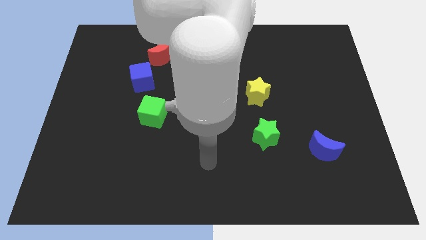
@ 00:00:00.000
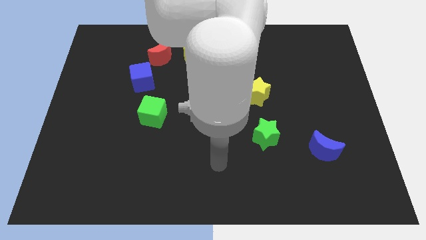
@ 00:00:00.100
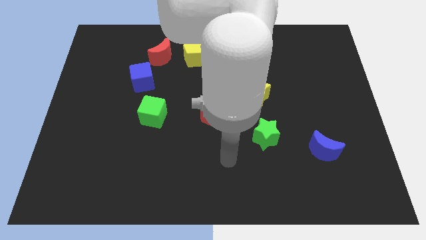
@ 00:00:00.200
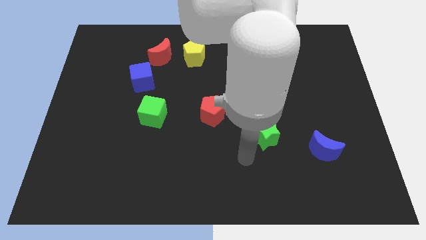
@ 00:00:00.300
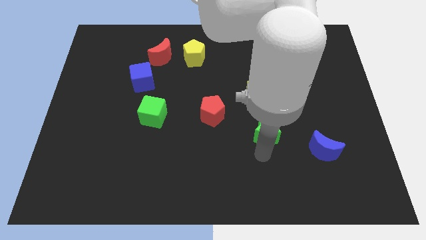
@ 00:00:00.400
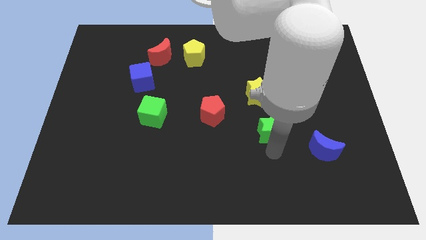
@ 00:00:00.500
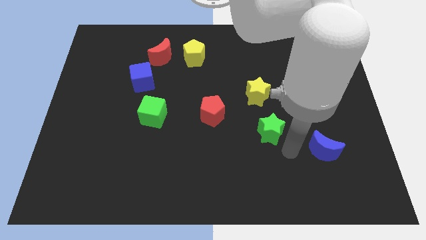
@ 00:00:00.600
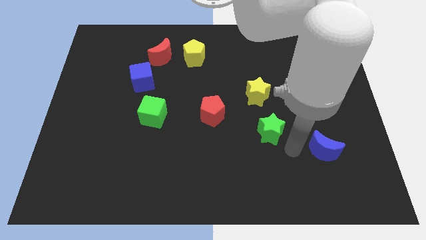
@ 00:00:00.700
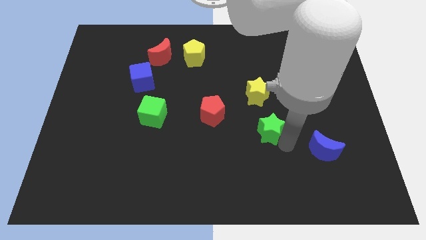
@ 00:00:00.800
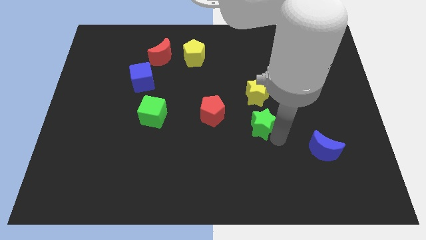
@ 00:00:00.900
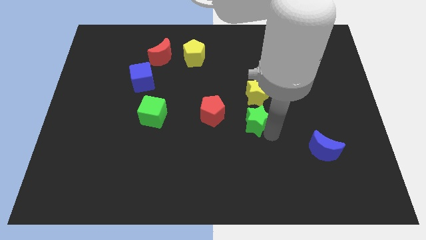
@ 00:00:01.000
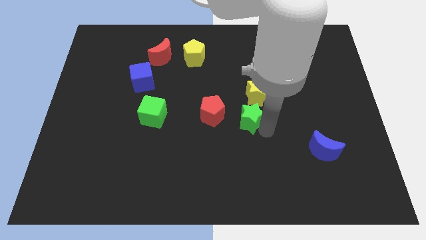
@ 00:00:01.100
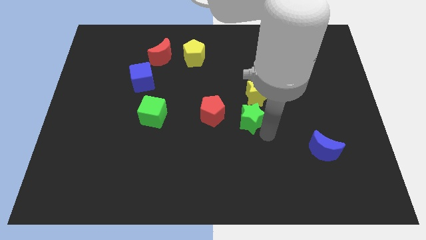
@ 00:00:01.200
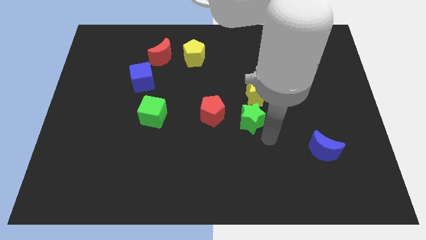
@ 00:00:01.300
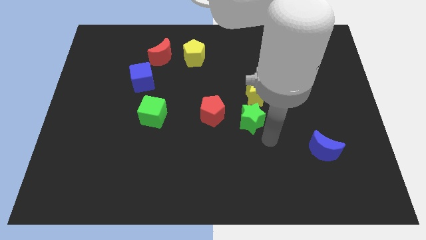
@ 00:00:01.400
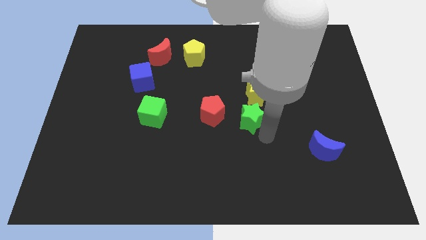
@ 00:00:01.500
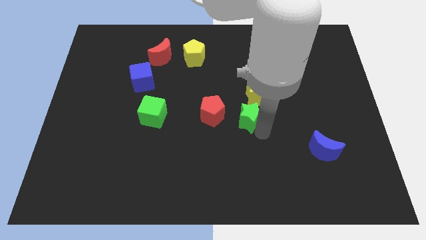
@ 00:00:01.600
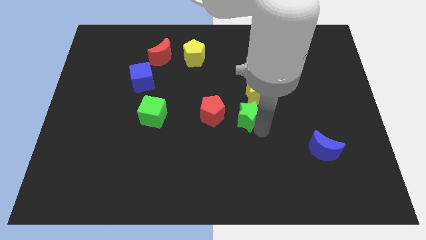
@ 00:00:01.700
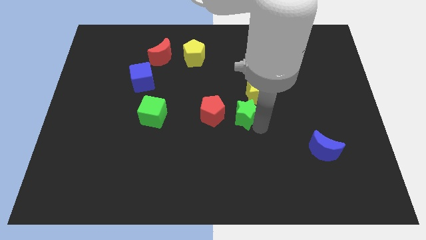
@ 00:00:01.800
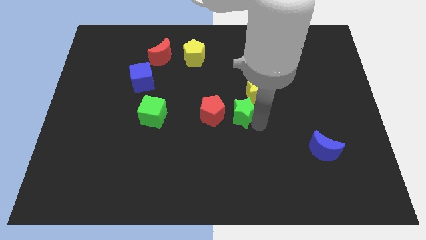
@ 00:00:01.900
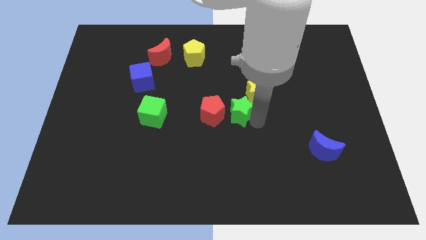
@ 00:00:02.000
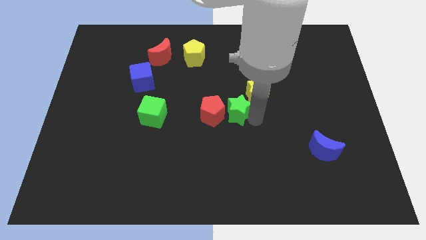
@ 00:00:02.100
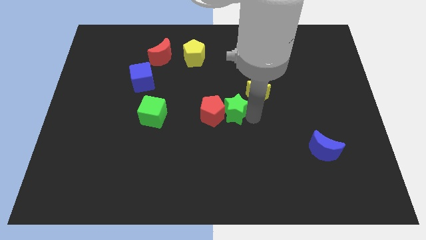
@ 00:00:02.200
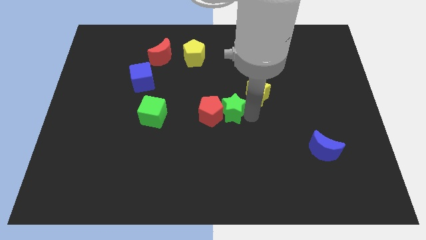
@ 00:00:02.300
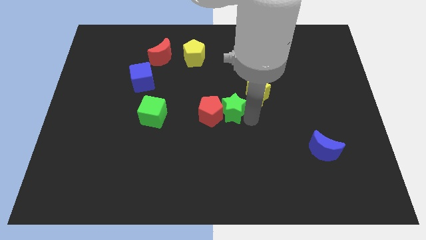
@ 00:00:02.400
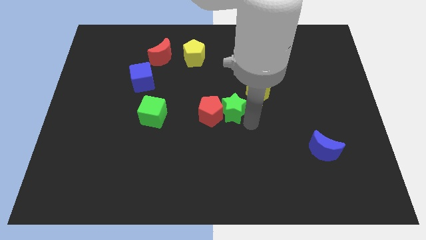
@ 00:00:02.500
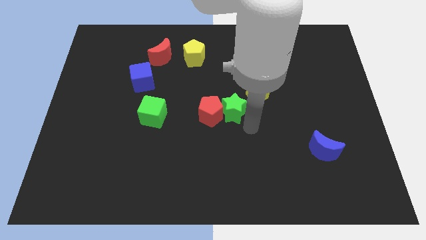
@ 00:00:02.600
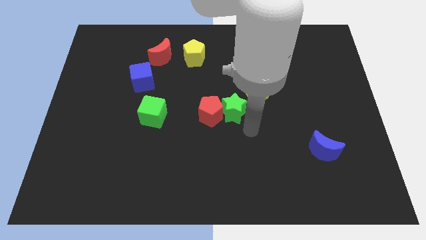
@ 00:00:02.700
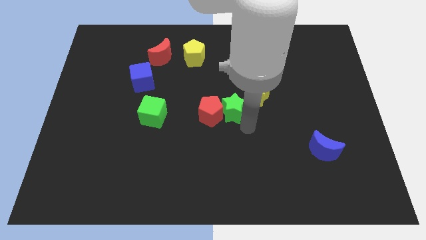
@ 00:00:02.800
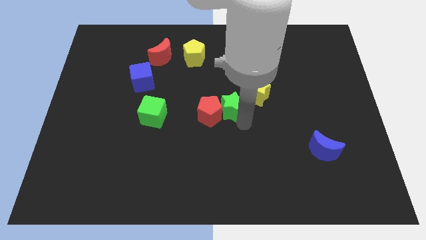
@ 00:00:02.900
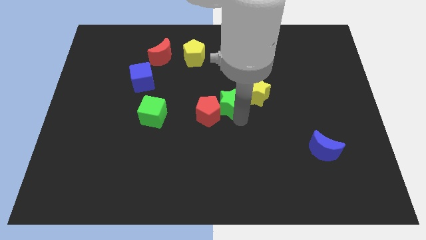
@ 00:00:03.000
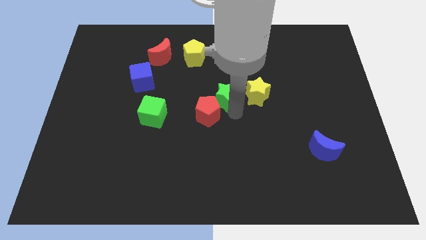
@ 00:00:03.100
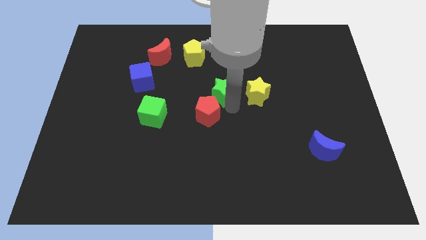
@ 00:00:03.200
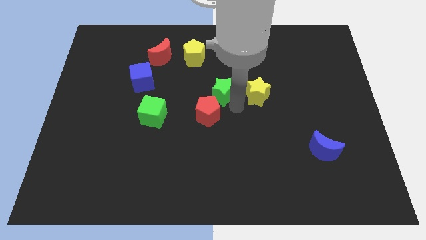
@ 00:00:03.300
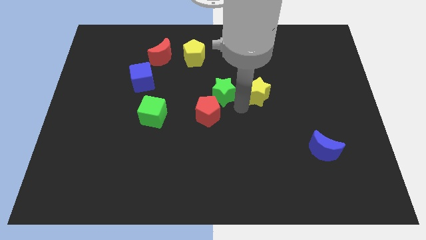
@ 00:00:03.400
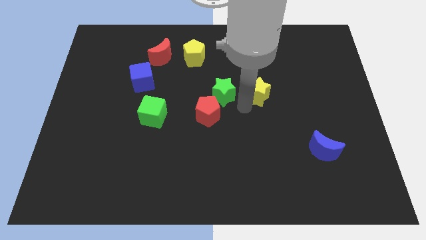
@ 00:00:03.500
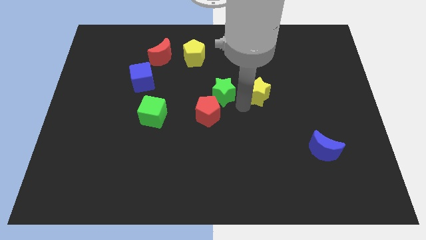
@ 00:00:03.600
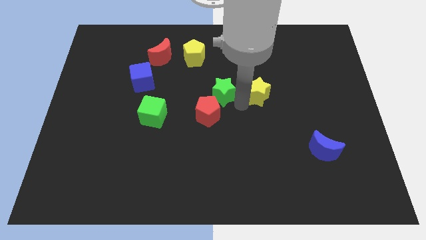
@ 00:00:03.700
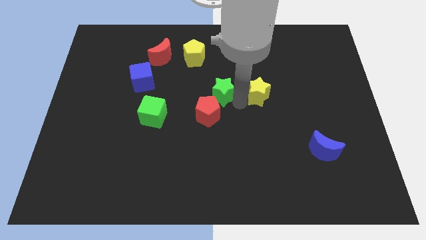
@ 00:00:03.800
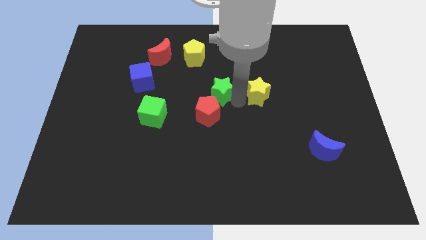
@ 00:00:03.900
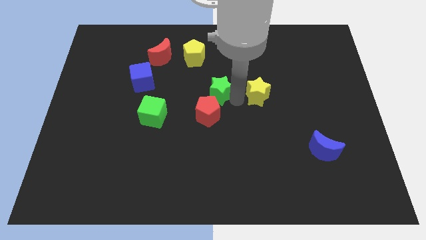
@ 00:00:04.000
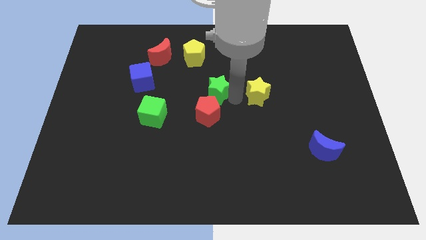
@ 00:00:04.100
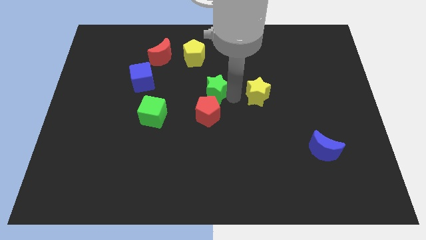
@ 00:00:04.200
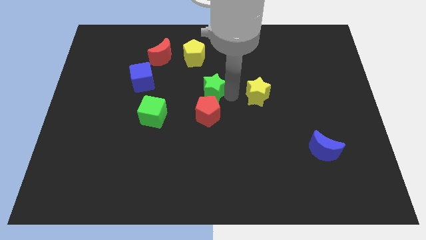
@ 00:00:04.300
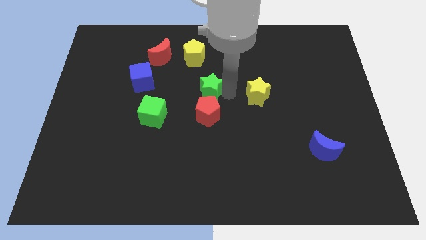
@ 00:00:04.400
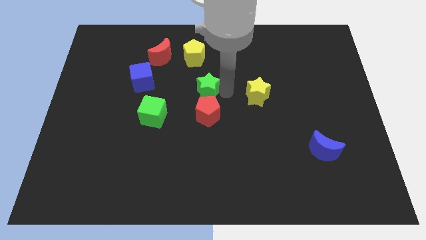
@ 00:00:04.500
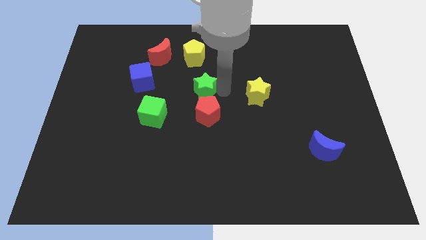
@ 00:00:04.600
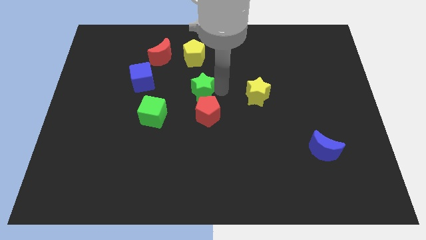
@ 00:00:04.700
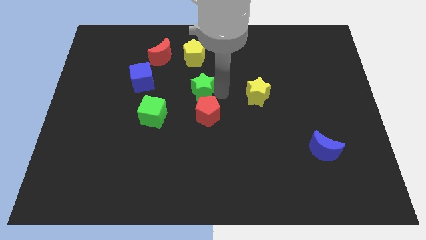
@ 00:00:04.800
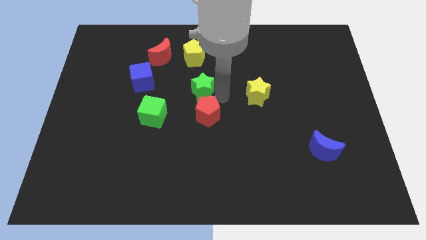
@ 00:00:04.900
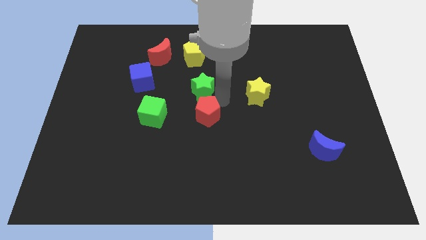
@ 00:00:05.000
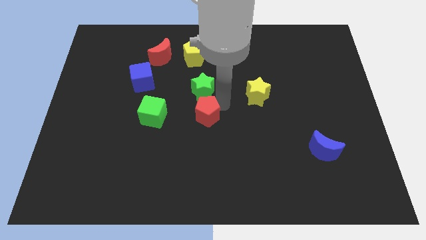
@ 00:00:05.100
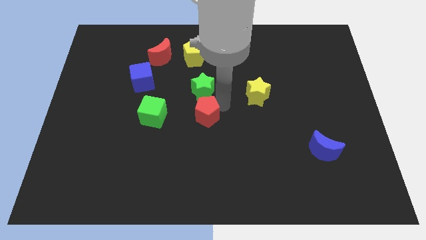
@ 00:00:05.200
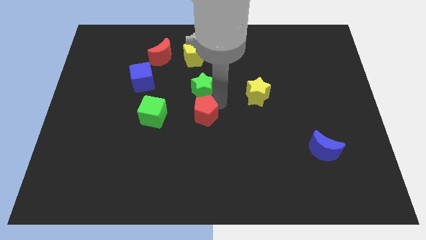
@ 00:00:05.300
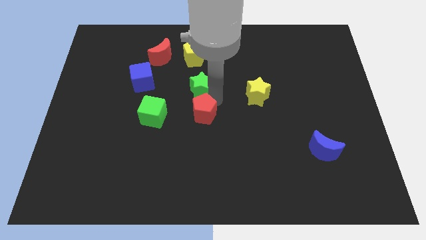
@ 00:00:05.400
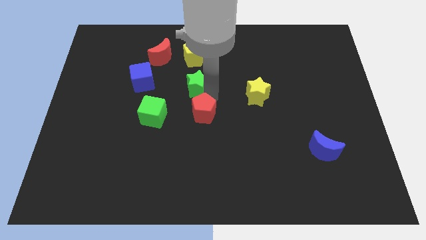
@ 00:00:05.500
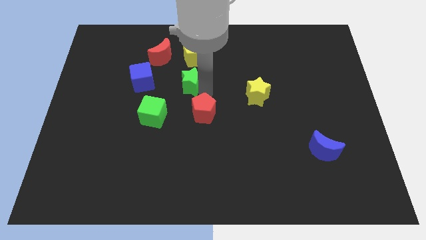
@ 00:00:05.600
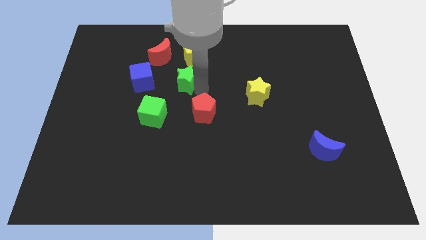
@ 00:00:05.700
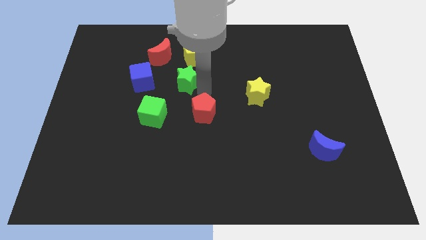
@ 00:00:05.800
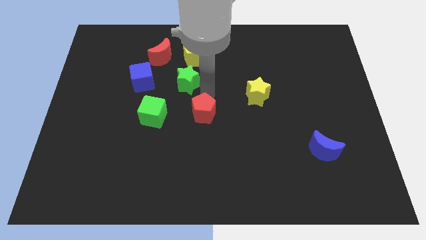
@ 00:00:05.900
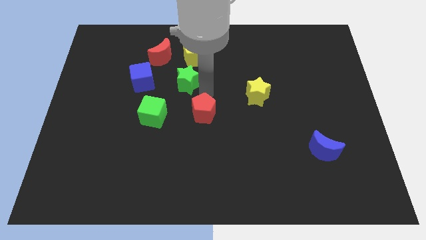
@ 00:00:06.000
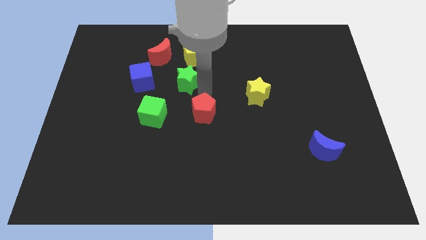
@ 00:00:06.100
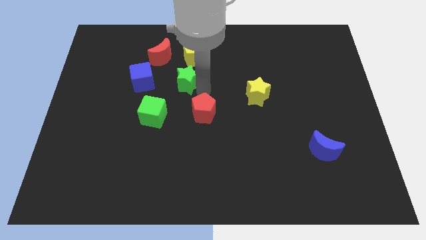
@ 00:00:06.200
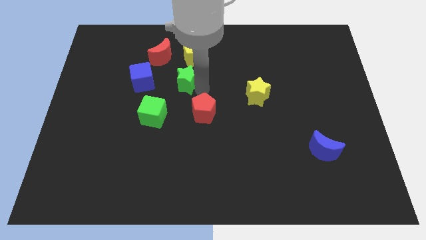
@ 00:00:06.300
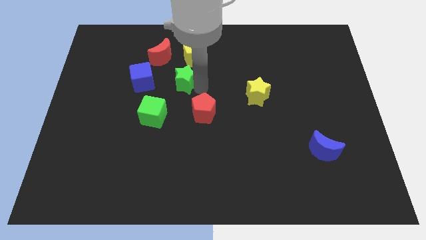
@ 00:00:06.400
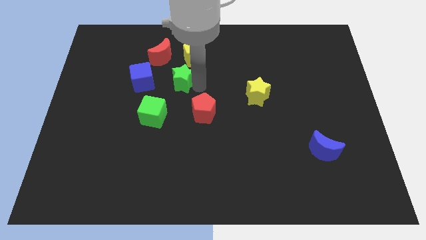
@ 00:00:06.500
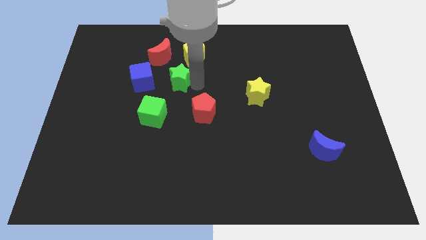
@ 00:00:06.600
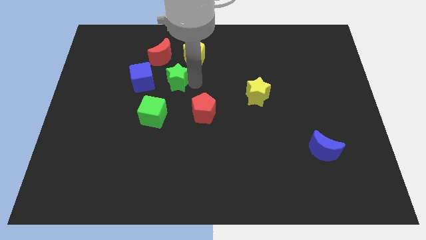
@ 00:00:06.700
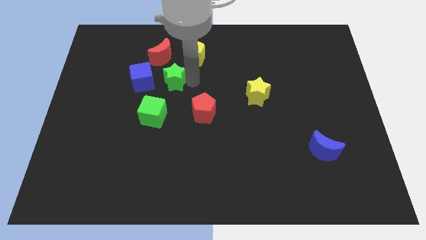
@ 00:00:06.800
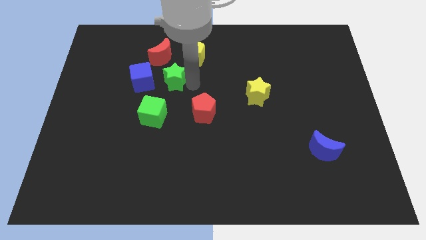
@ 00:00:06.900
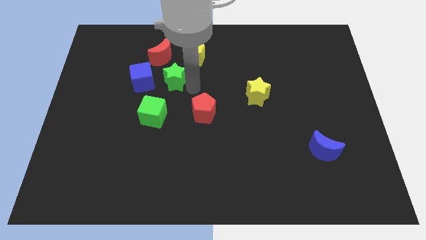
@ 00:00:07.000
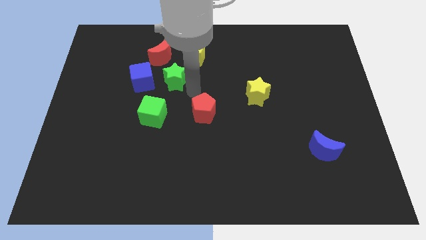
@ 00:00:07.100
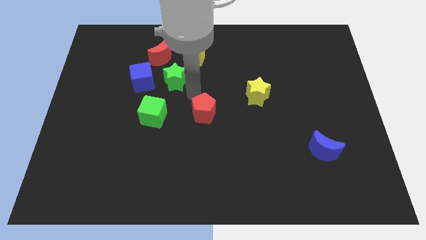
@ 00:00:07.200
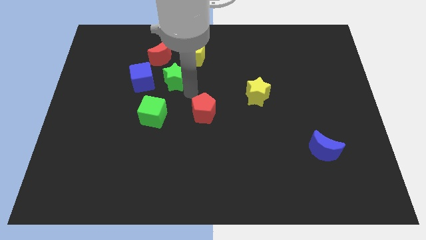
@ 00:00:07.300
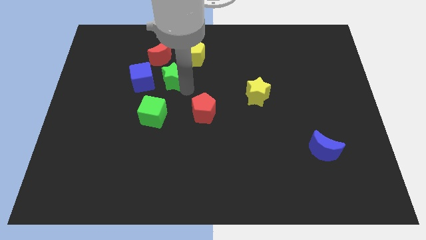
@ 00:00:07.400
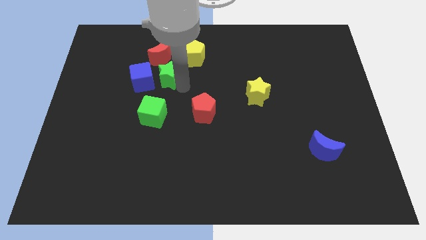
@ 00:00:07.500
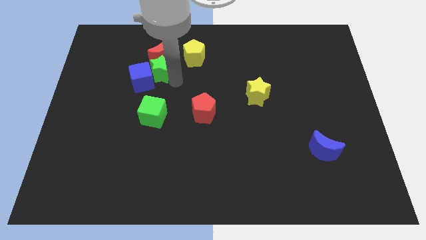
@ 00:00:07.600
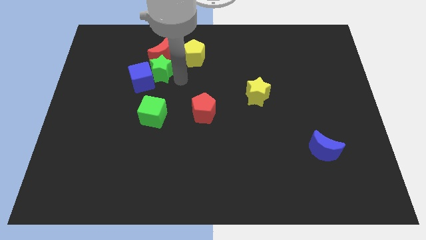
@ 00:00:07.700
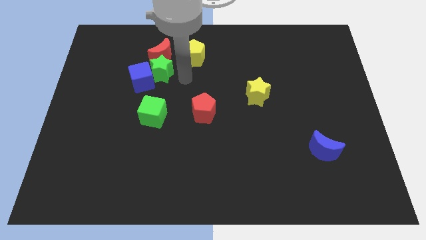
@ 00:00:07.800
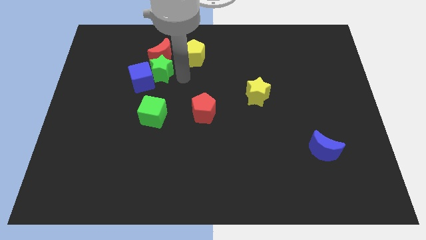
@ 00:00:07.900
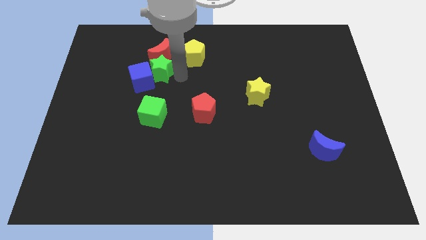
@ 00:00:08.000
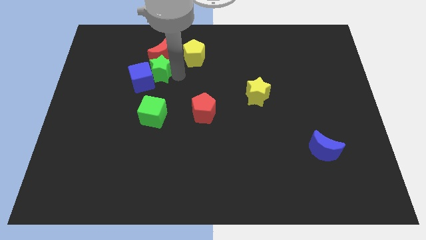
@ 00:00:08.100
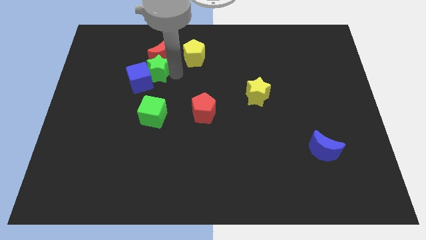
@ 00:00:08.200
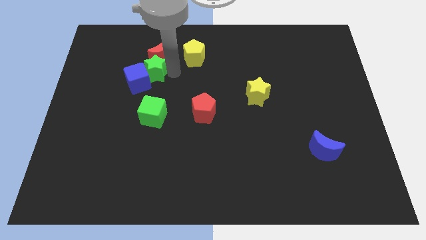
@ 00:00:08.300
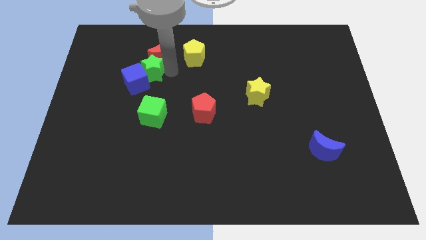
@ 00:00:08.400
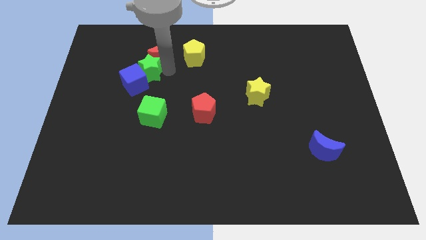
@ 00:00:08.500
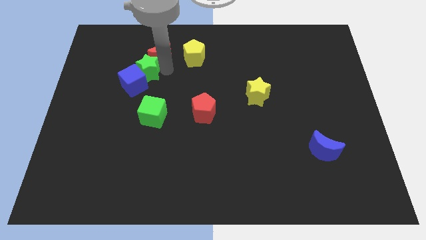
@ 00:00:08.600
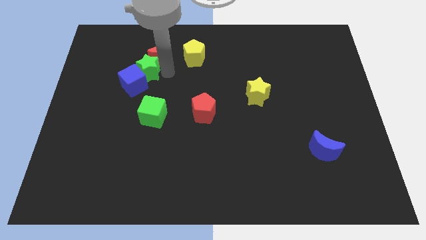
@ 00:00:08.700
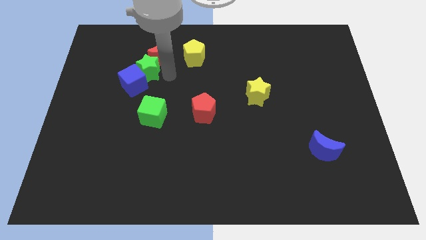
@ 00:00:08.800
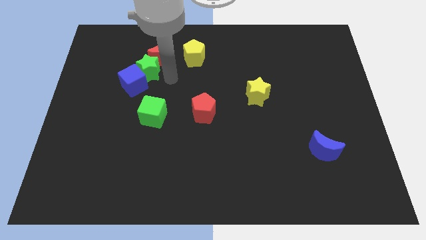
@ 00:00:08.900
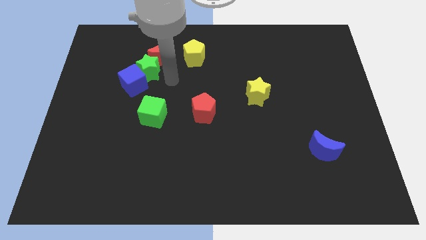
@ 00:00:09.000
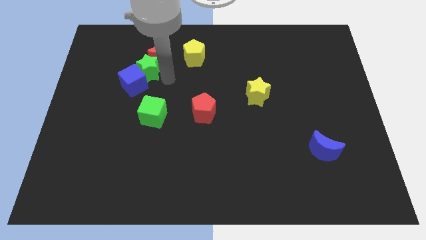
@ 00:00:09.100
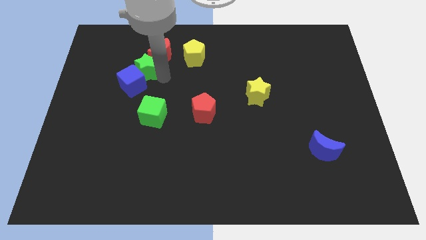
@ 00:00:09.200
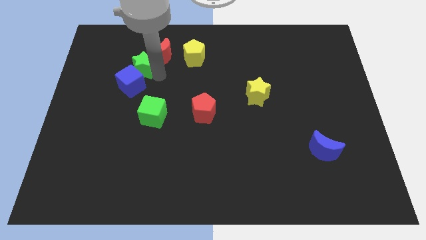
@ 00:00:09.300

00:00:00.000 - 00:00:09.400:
put the green star just left of the yellow pentagon
